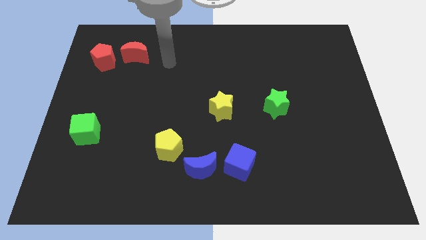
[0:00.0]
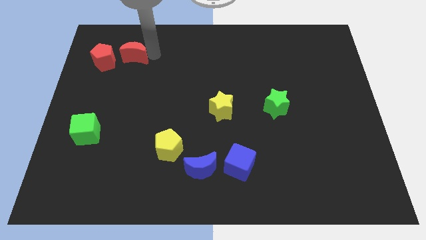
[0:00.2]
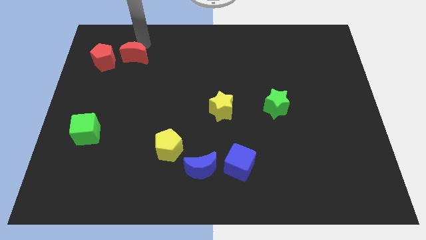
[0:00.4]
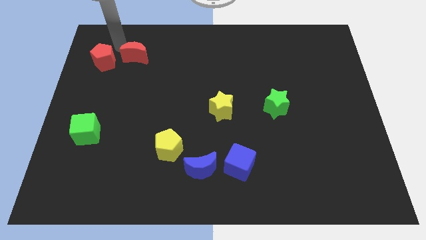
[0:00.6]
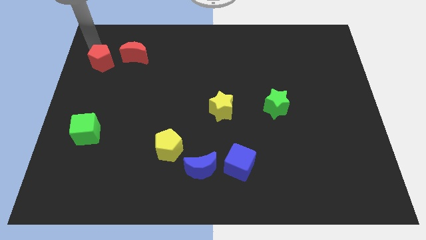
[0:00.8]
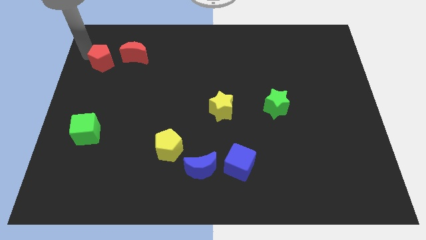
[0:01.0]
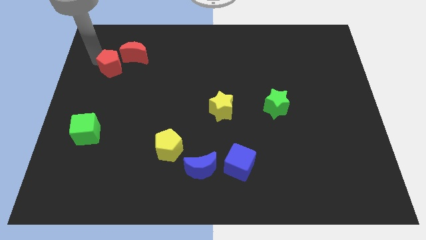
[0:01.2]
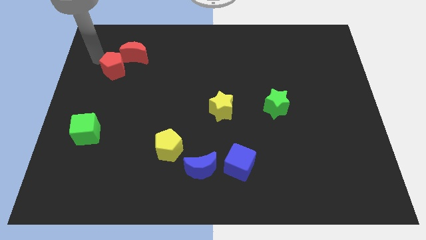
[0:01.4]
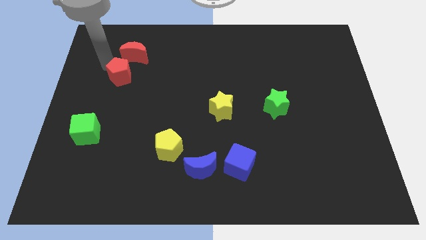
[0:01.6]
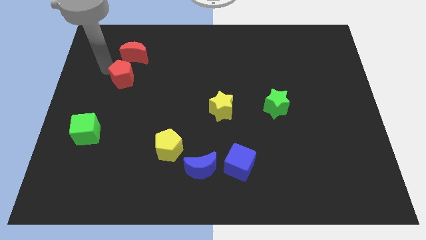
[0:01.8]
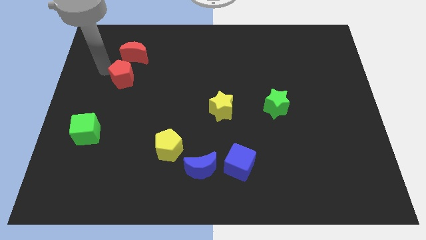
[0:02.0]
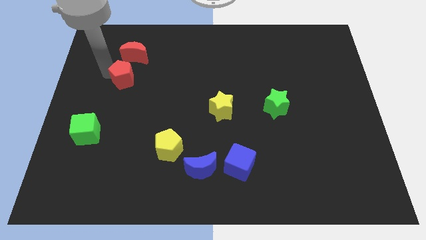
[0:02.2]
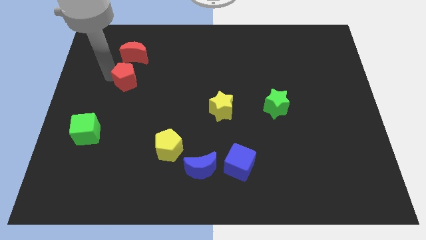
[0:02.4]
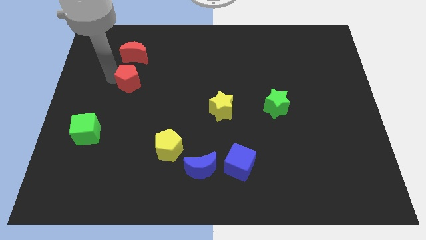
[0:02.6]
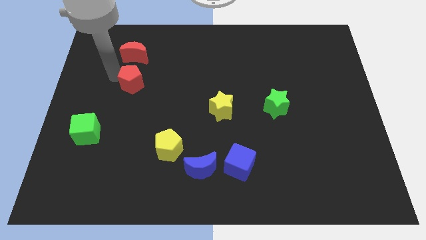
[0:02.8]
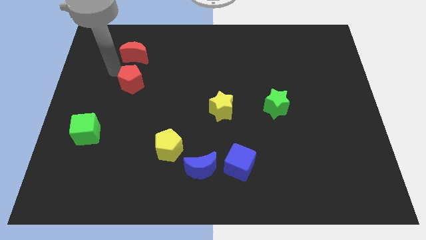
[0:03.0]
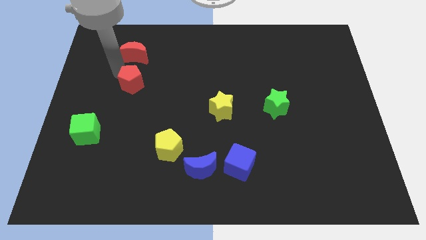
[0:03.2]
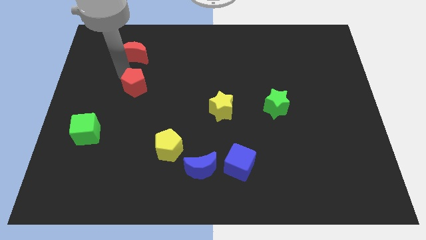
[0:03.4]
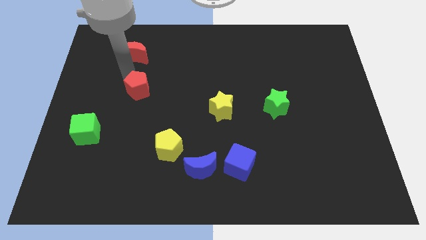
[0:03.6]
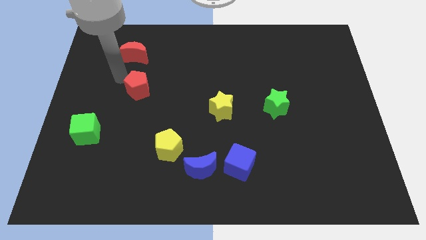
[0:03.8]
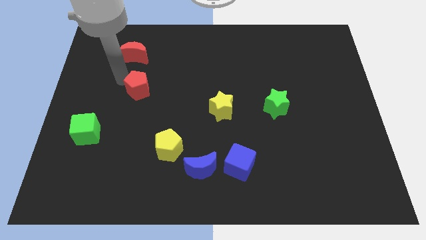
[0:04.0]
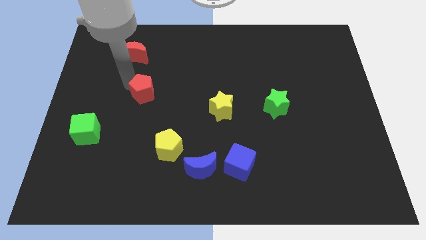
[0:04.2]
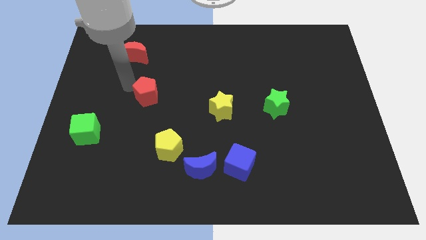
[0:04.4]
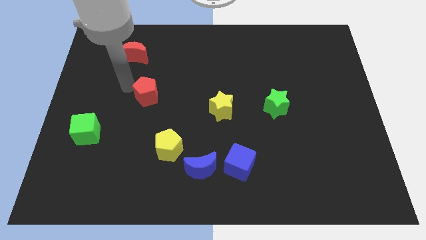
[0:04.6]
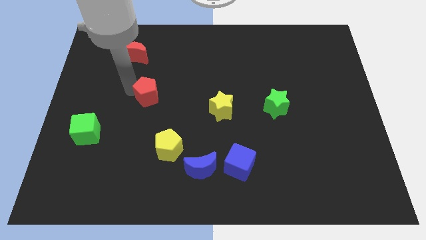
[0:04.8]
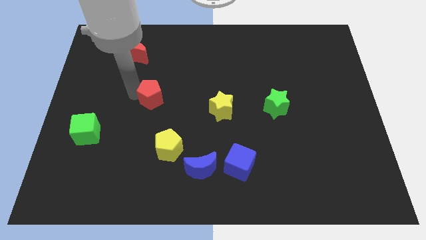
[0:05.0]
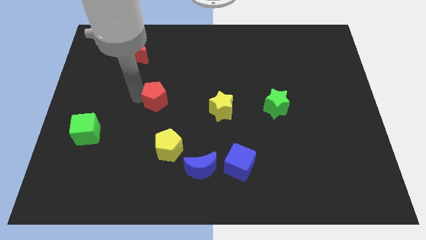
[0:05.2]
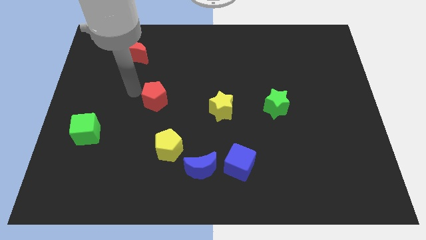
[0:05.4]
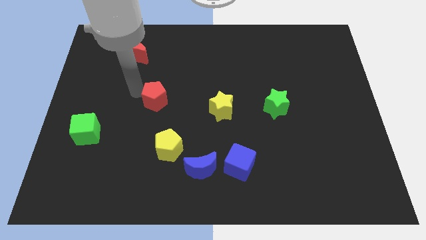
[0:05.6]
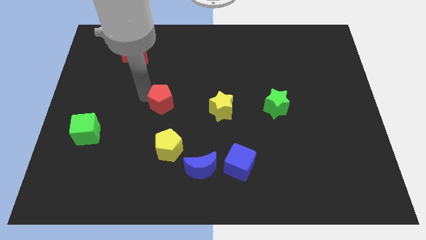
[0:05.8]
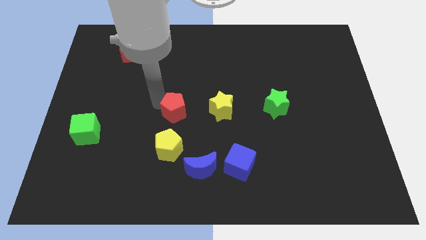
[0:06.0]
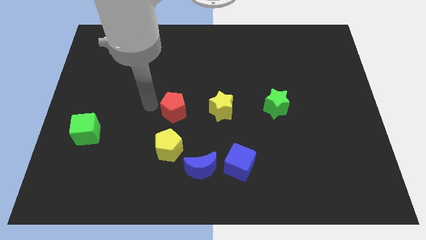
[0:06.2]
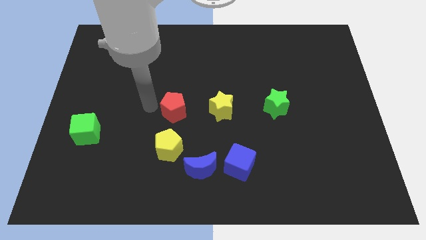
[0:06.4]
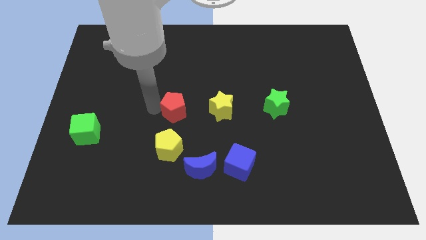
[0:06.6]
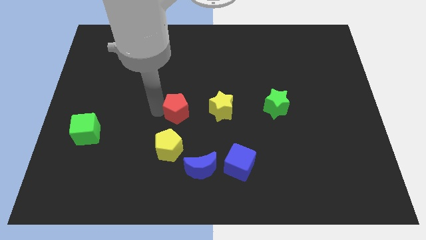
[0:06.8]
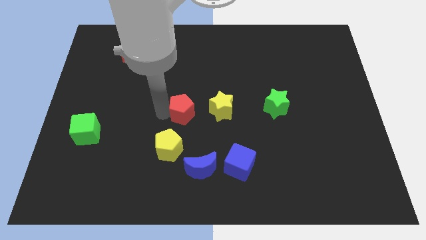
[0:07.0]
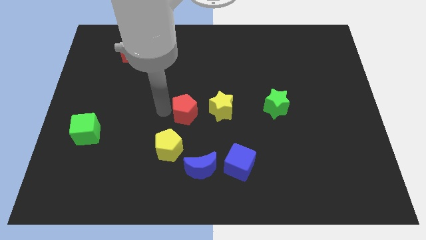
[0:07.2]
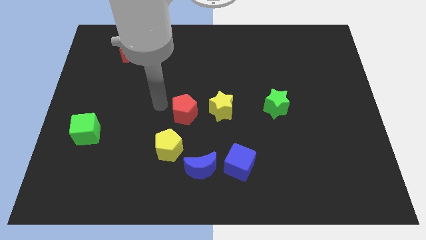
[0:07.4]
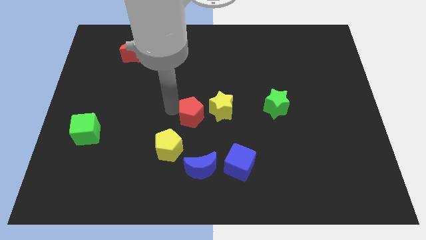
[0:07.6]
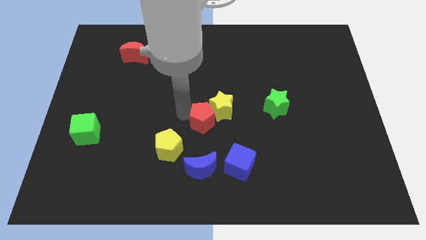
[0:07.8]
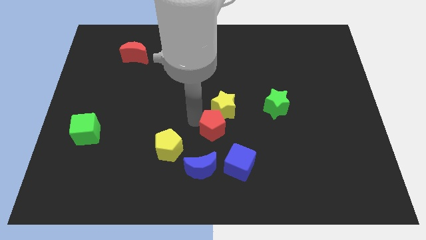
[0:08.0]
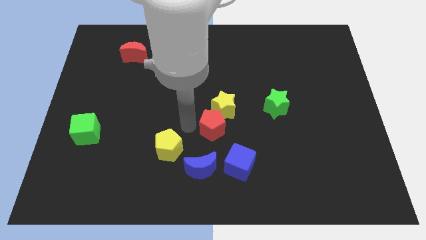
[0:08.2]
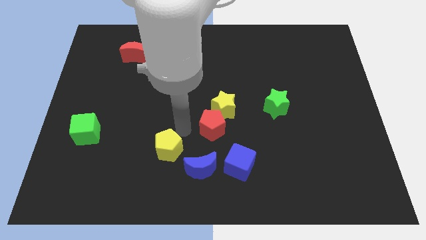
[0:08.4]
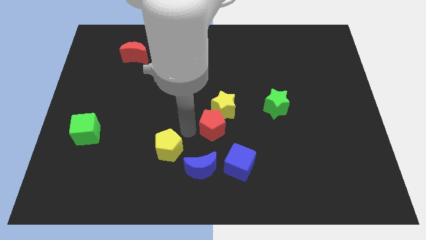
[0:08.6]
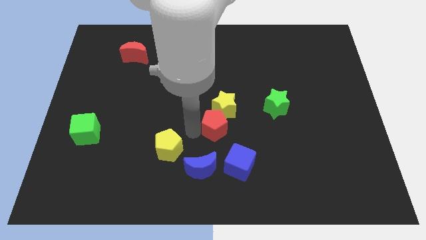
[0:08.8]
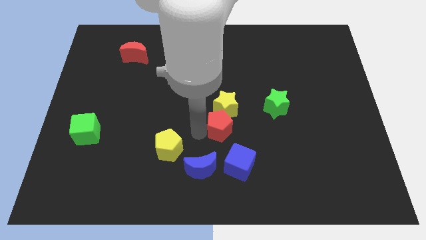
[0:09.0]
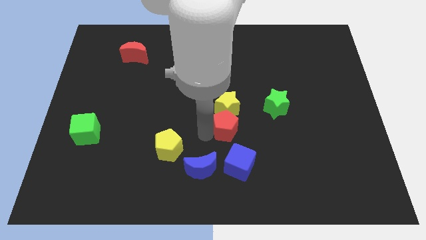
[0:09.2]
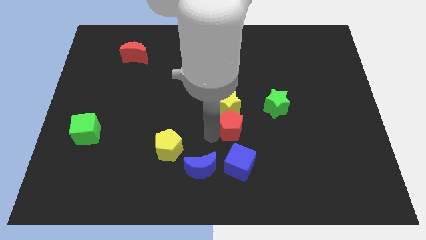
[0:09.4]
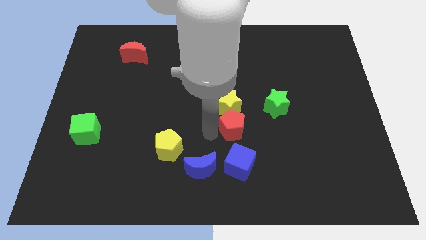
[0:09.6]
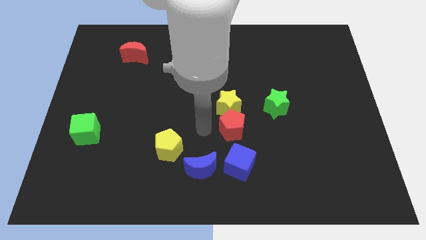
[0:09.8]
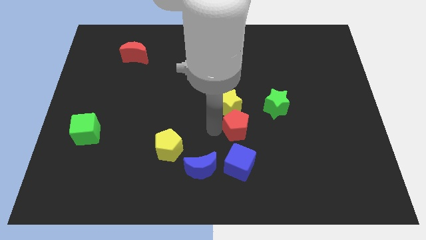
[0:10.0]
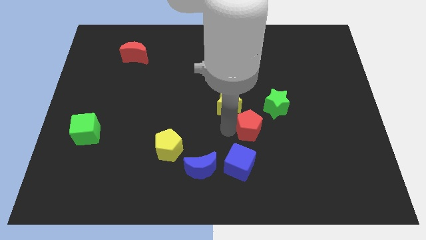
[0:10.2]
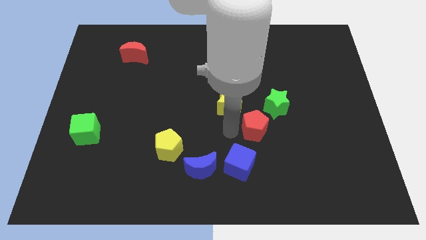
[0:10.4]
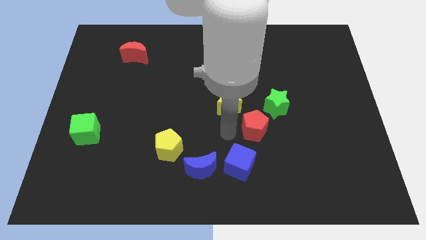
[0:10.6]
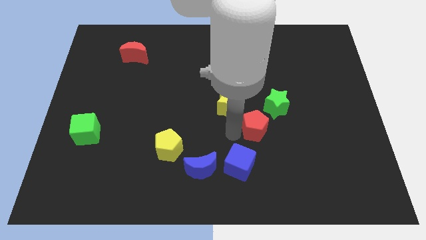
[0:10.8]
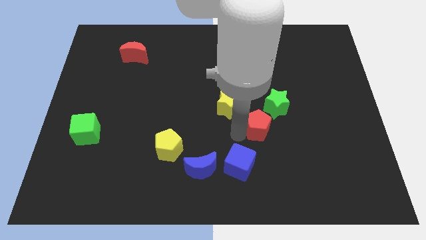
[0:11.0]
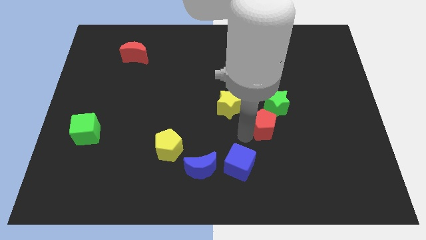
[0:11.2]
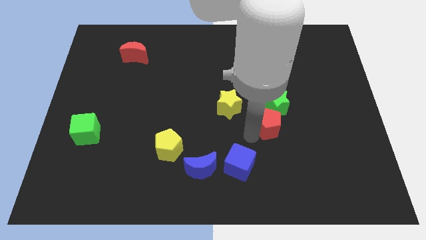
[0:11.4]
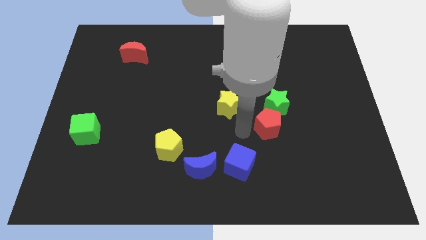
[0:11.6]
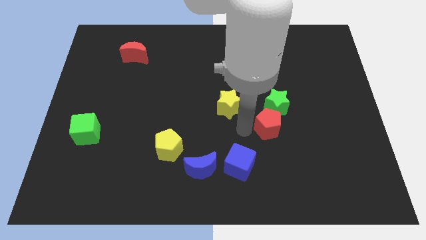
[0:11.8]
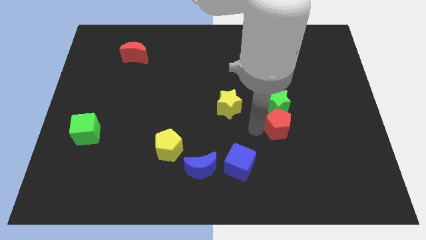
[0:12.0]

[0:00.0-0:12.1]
move the red pentagon diagonally down and to the right of the green star

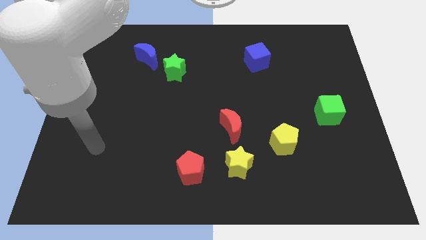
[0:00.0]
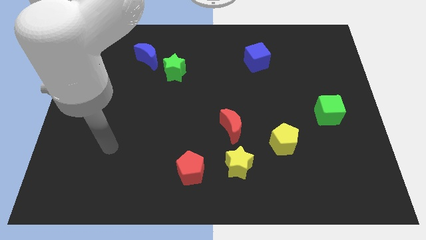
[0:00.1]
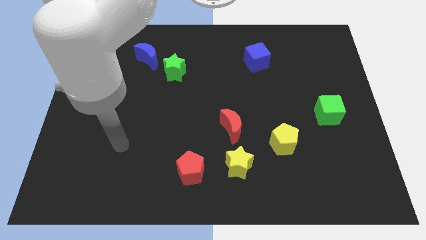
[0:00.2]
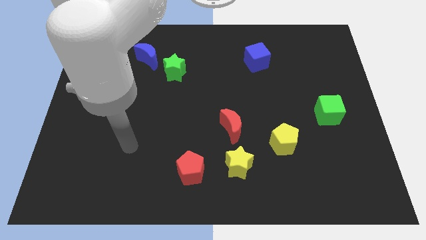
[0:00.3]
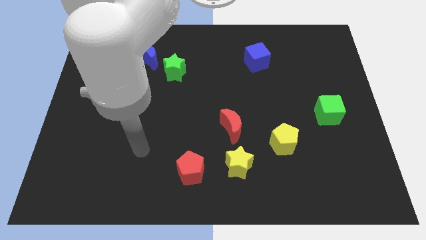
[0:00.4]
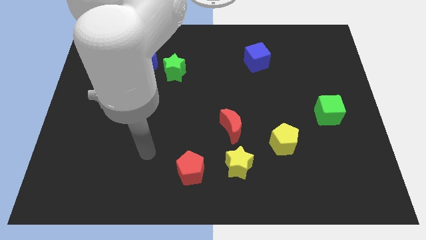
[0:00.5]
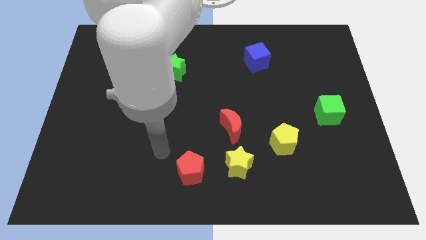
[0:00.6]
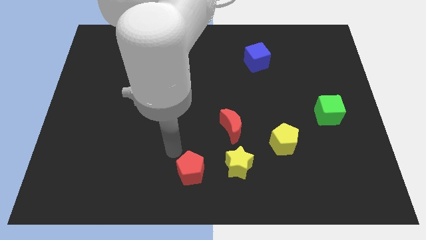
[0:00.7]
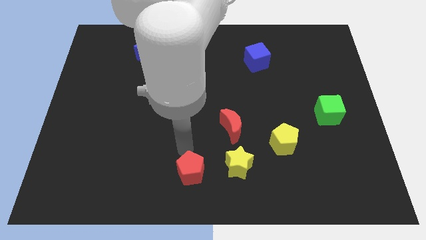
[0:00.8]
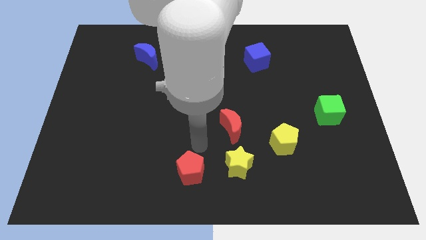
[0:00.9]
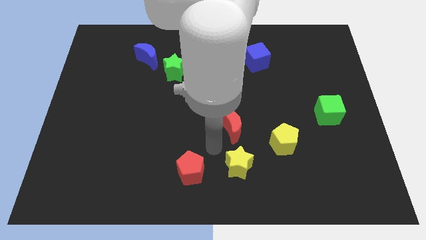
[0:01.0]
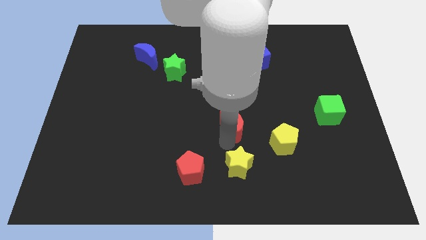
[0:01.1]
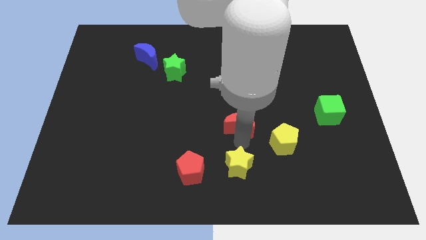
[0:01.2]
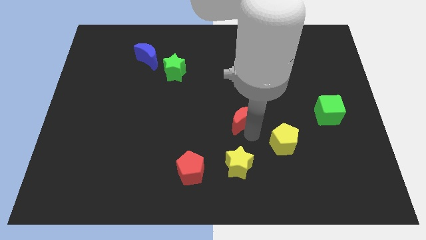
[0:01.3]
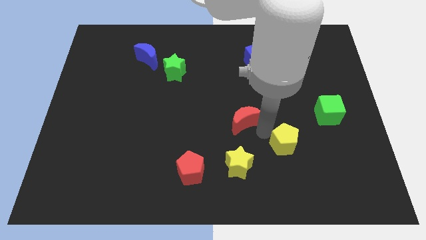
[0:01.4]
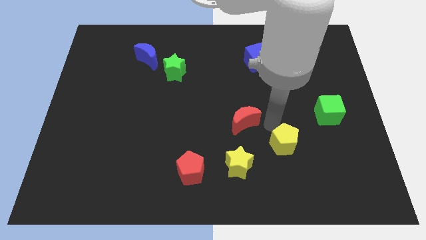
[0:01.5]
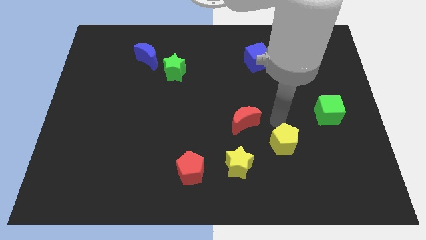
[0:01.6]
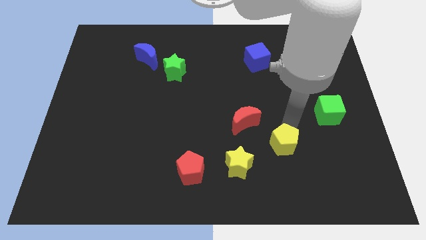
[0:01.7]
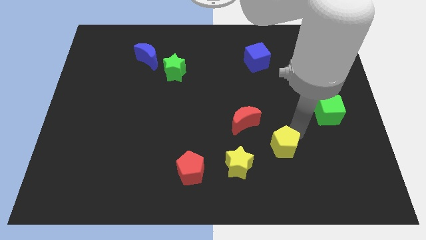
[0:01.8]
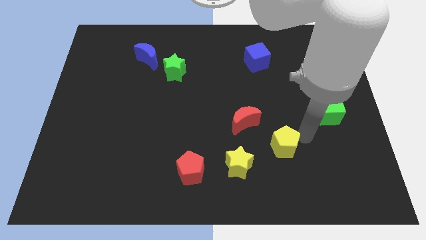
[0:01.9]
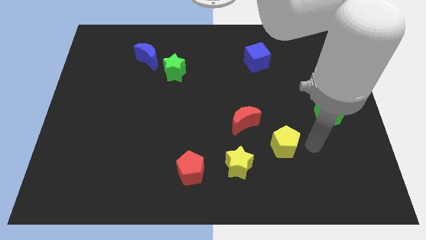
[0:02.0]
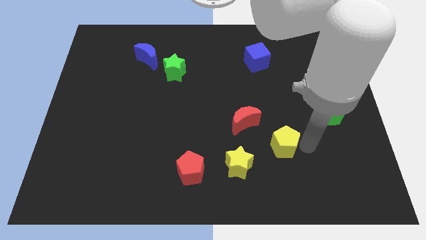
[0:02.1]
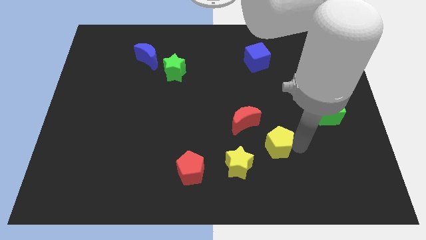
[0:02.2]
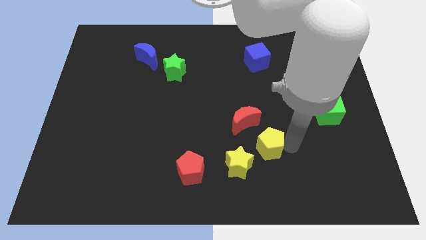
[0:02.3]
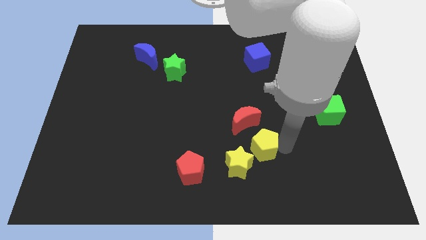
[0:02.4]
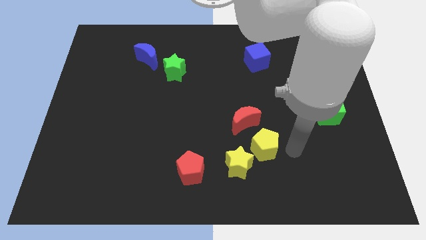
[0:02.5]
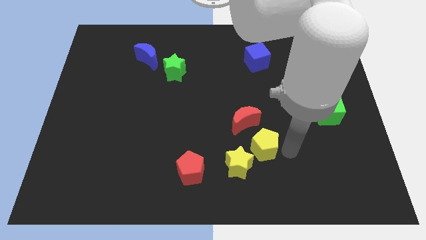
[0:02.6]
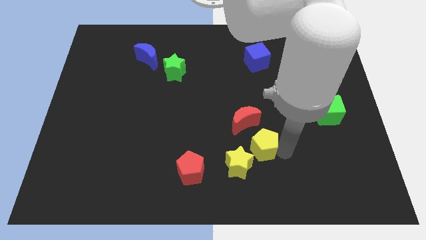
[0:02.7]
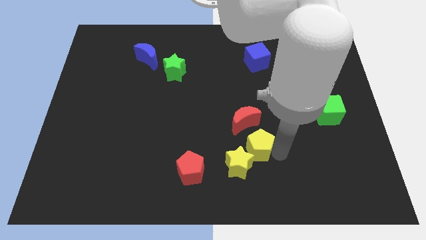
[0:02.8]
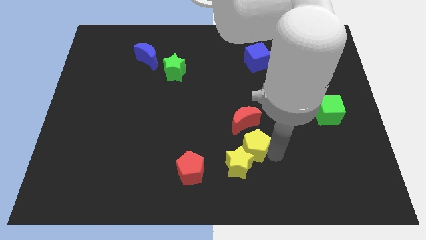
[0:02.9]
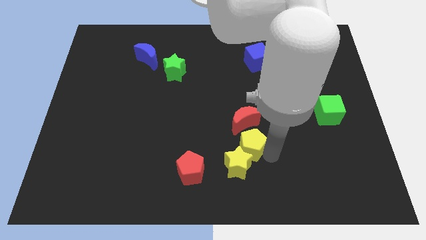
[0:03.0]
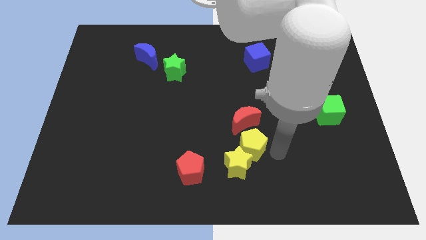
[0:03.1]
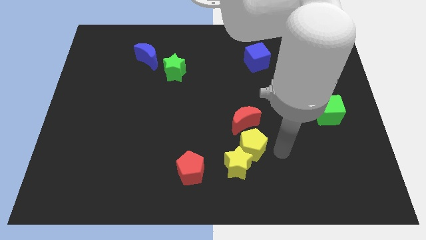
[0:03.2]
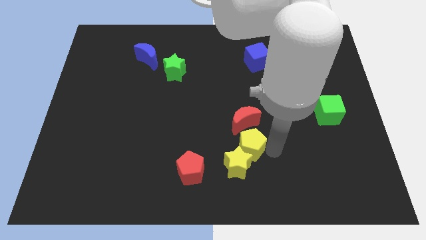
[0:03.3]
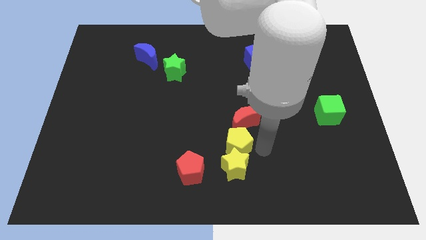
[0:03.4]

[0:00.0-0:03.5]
slide the yellow pentagon to the top left of the yellow star
